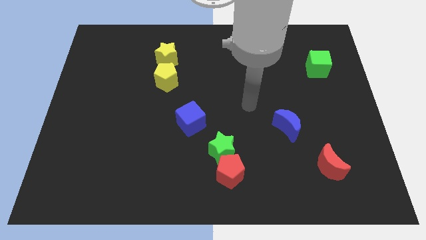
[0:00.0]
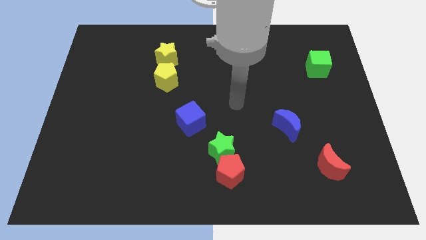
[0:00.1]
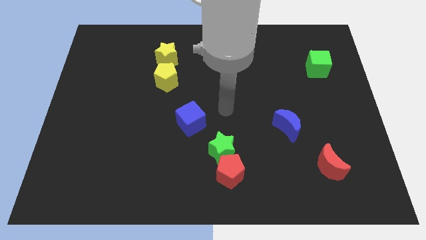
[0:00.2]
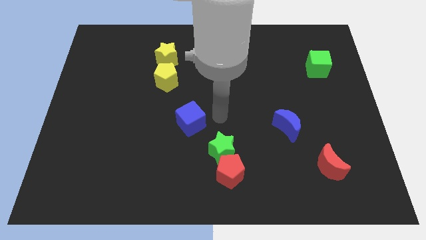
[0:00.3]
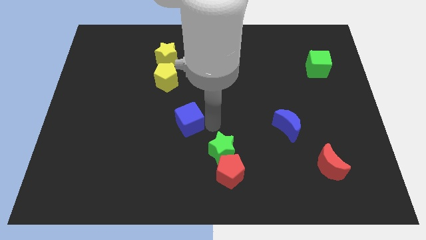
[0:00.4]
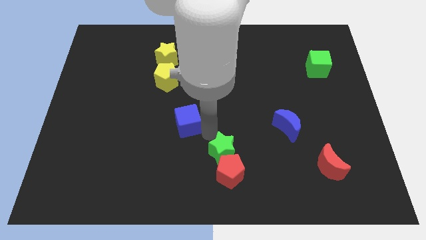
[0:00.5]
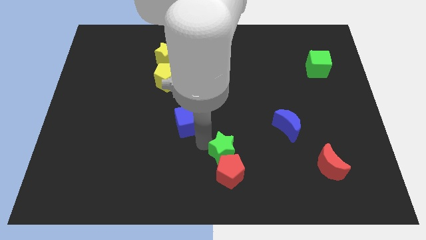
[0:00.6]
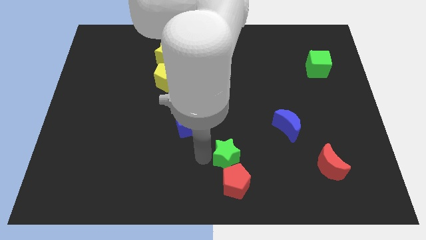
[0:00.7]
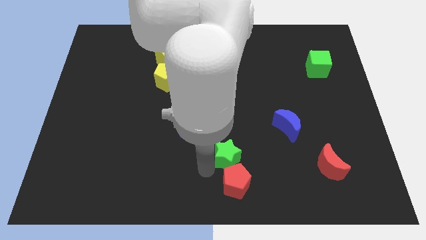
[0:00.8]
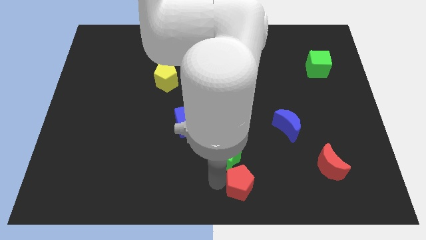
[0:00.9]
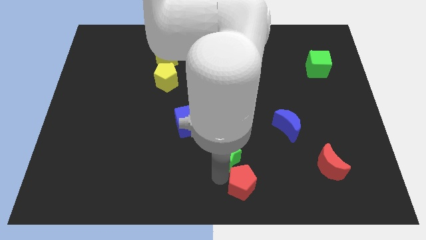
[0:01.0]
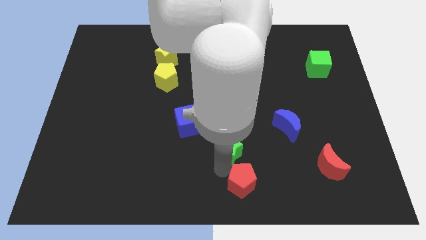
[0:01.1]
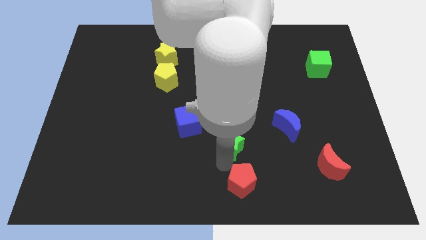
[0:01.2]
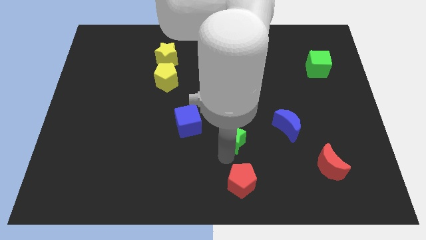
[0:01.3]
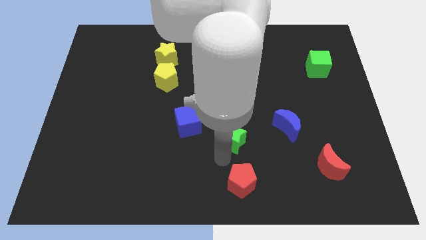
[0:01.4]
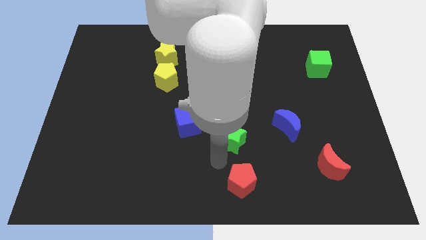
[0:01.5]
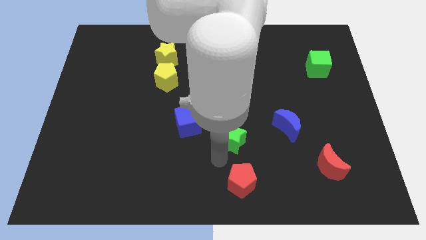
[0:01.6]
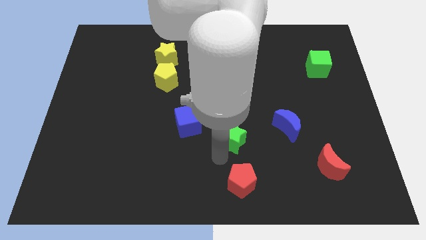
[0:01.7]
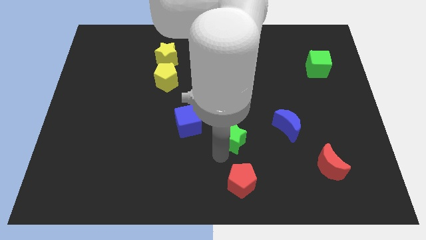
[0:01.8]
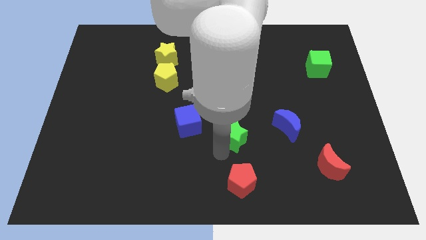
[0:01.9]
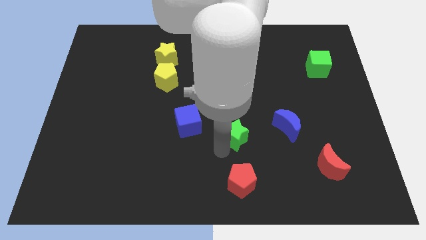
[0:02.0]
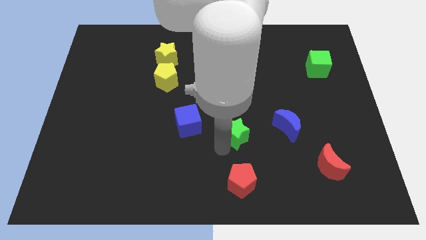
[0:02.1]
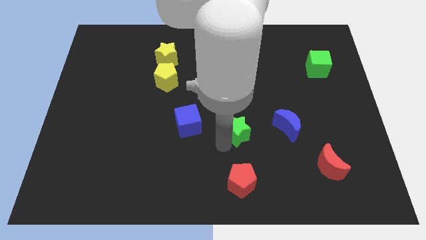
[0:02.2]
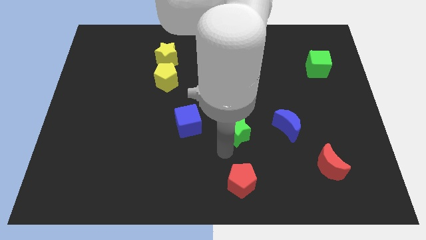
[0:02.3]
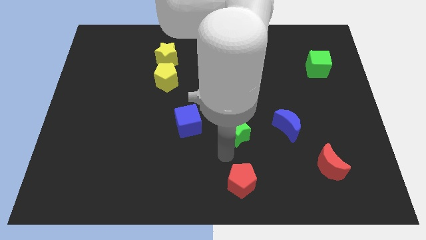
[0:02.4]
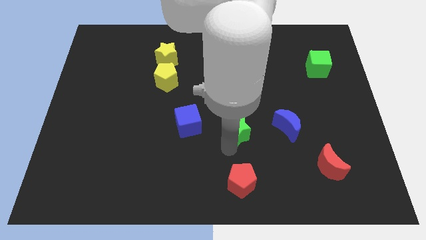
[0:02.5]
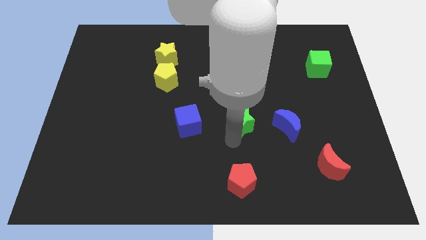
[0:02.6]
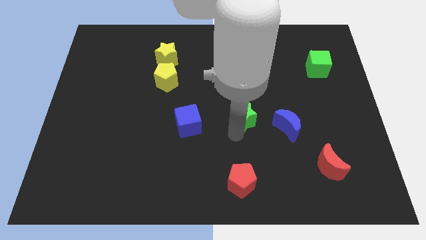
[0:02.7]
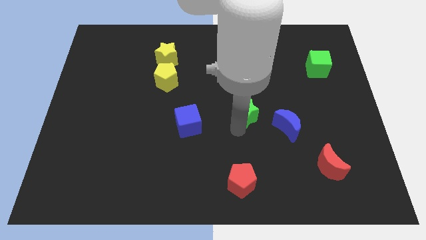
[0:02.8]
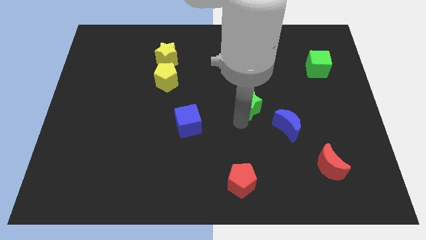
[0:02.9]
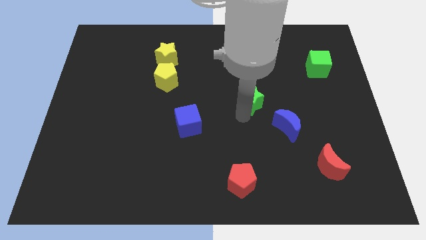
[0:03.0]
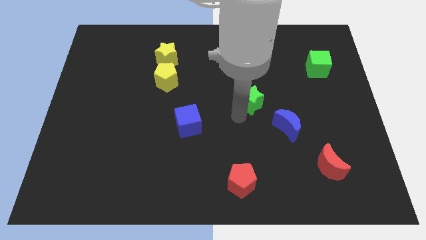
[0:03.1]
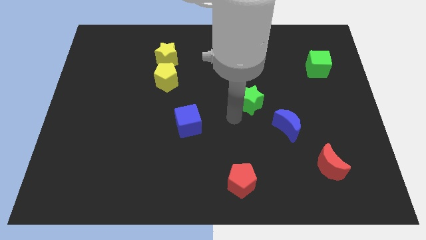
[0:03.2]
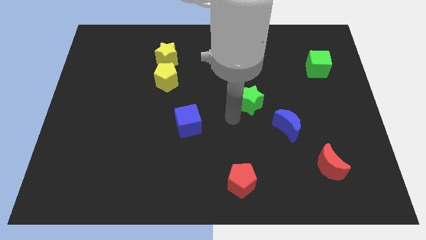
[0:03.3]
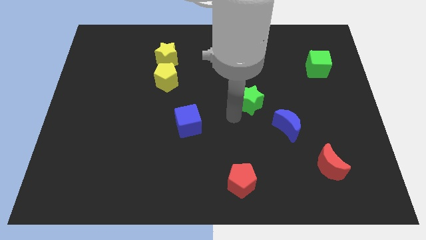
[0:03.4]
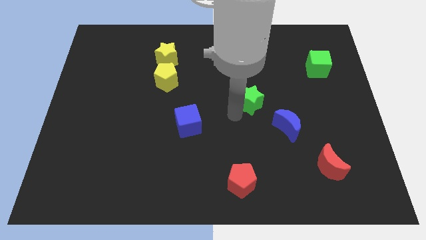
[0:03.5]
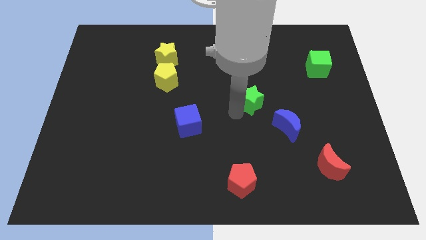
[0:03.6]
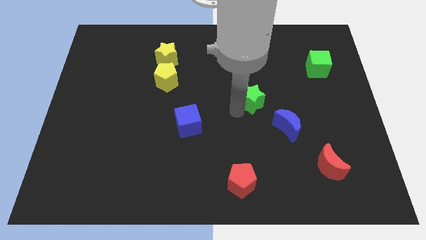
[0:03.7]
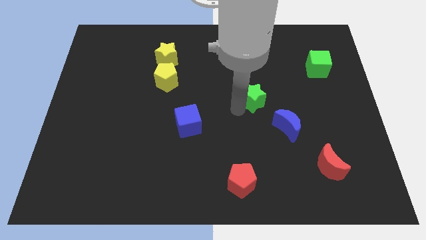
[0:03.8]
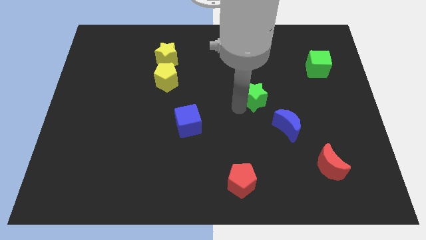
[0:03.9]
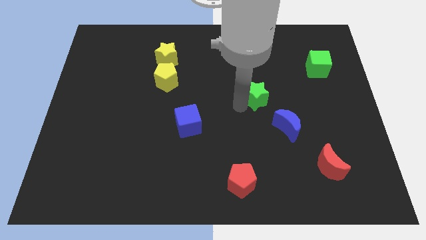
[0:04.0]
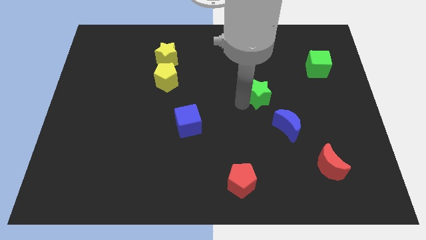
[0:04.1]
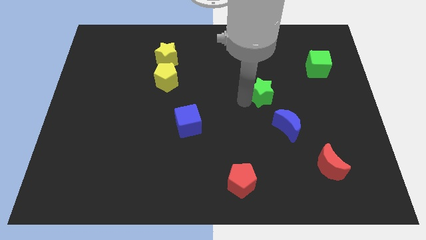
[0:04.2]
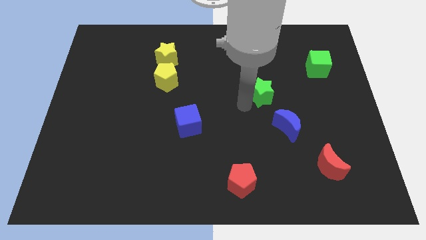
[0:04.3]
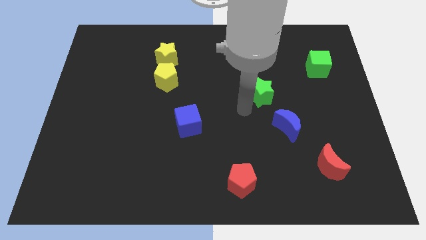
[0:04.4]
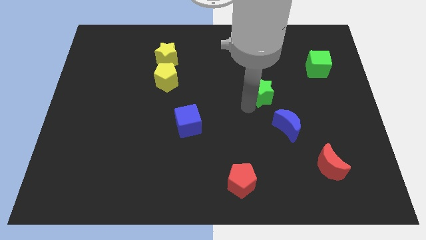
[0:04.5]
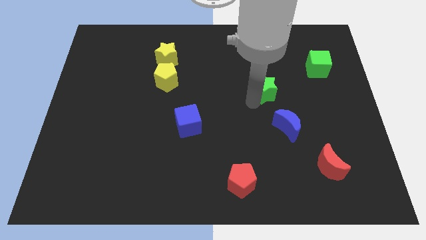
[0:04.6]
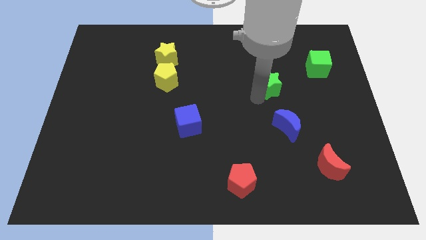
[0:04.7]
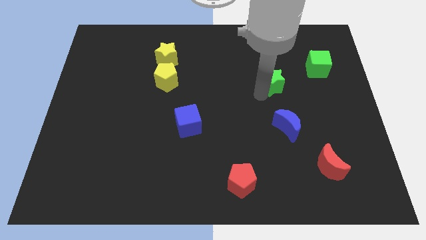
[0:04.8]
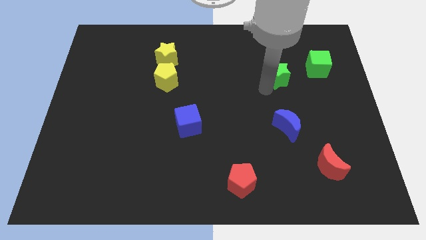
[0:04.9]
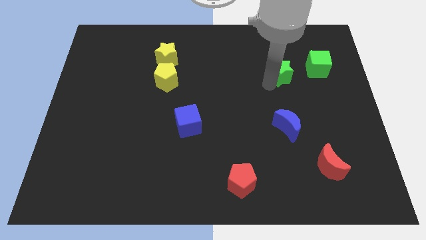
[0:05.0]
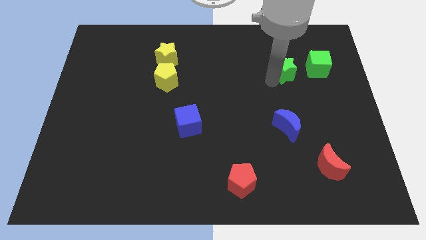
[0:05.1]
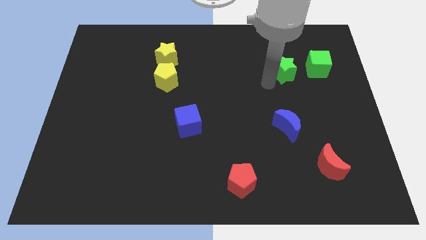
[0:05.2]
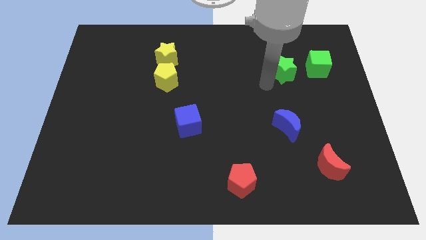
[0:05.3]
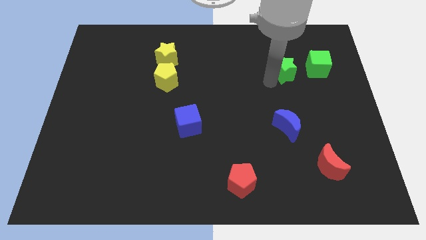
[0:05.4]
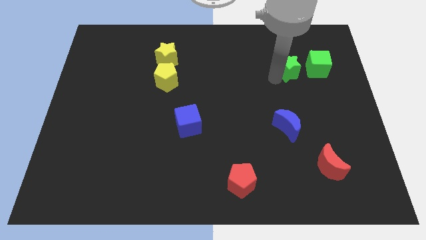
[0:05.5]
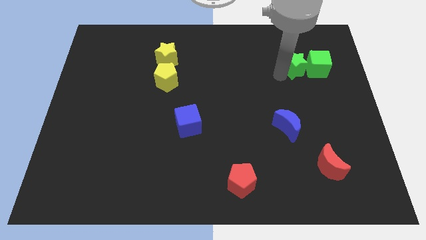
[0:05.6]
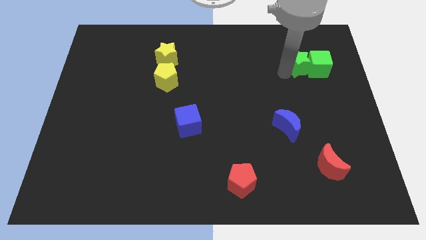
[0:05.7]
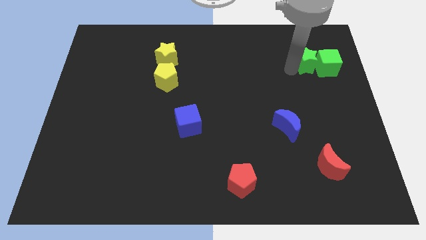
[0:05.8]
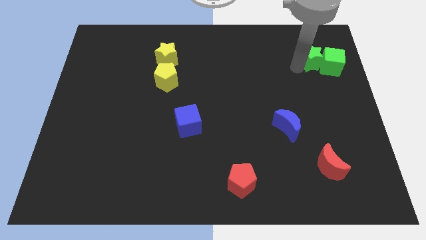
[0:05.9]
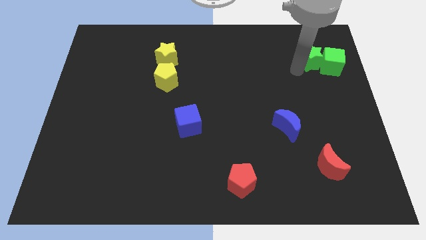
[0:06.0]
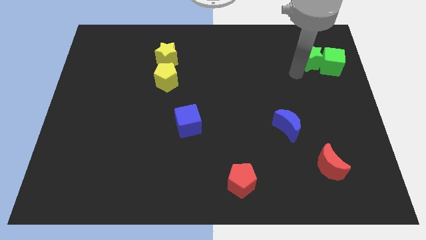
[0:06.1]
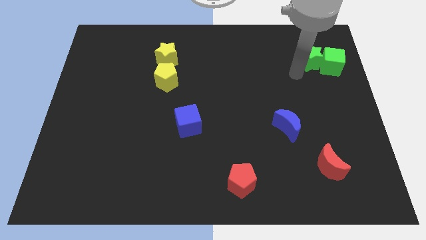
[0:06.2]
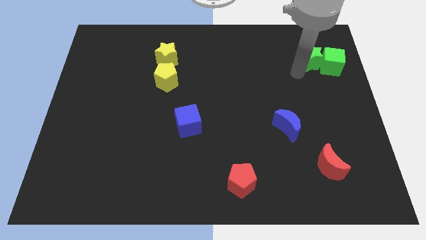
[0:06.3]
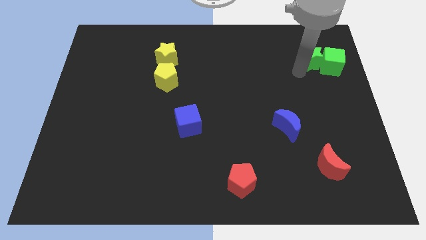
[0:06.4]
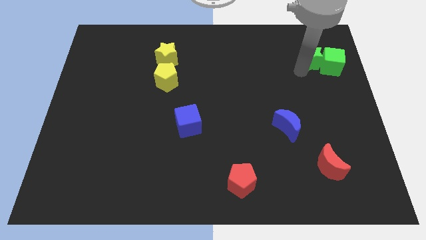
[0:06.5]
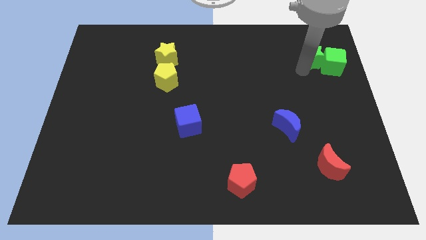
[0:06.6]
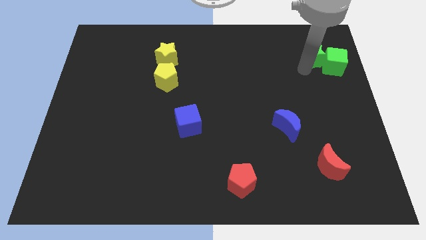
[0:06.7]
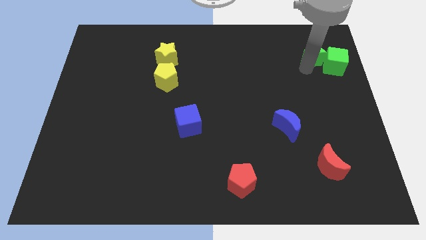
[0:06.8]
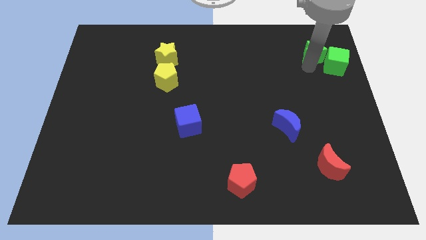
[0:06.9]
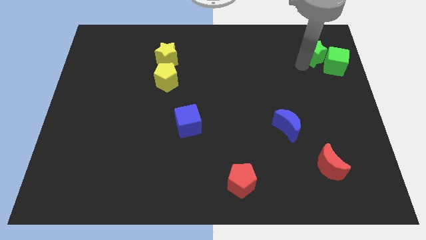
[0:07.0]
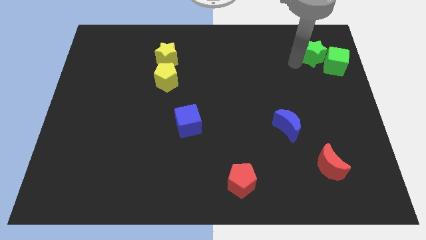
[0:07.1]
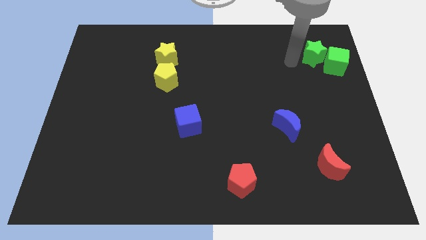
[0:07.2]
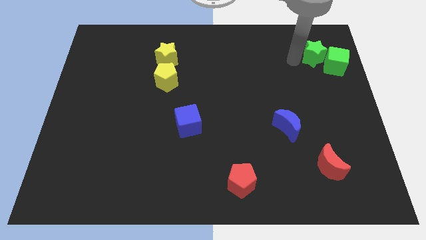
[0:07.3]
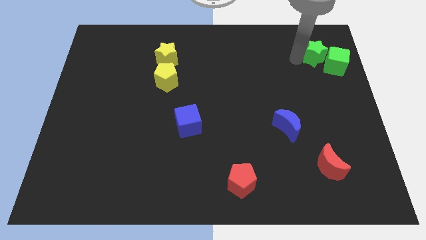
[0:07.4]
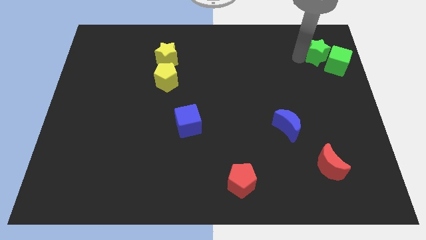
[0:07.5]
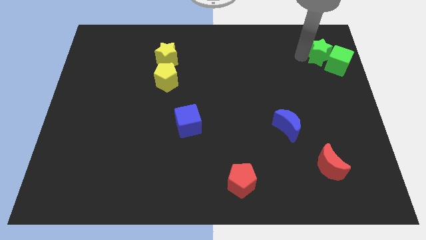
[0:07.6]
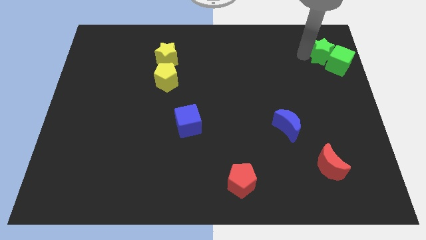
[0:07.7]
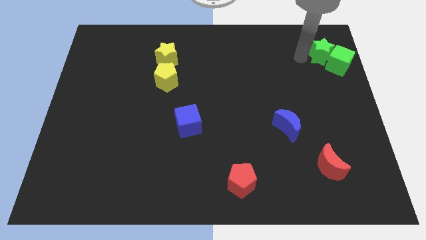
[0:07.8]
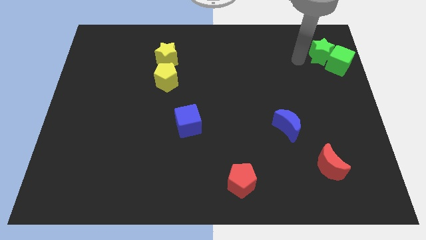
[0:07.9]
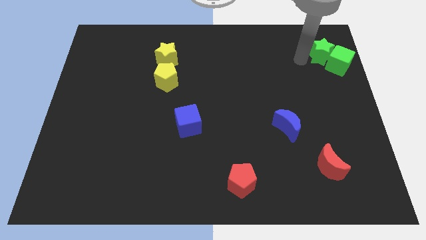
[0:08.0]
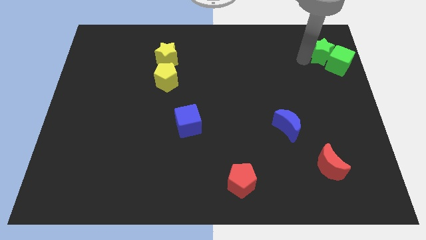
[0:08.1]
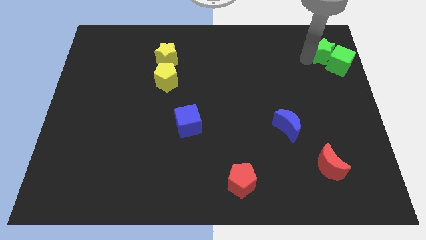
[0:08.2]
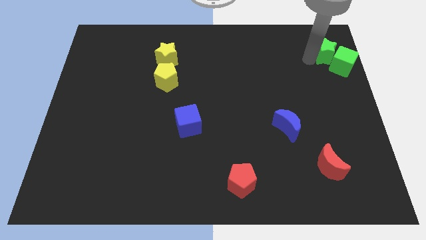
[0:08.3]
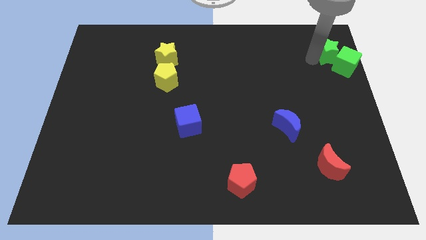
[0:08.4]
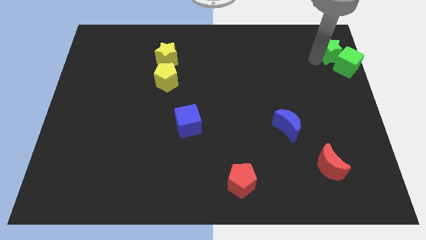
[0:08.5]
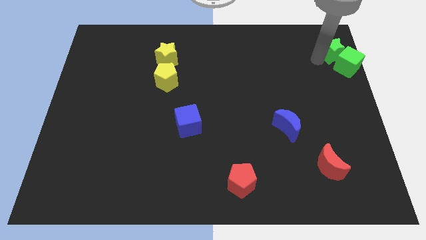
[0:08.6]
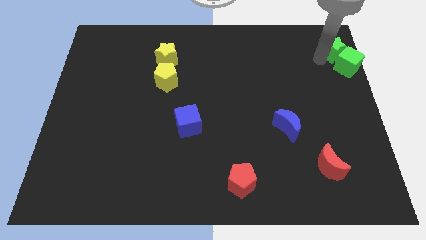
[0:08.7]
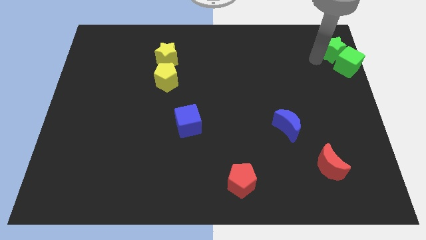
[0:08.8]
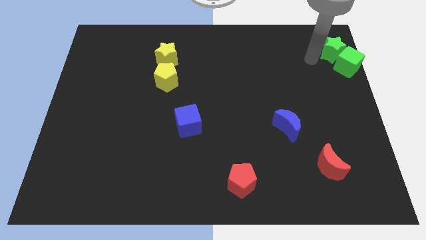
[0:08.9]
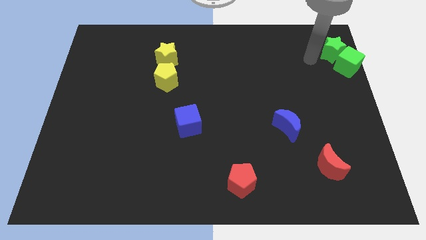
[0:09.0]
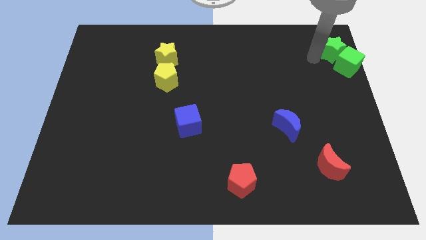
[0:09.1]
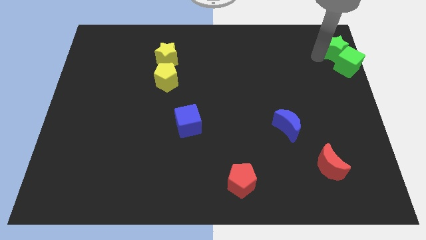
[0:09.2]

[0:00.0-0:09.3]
slide the green star to the top right
